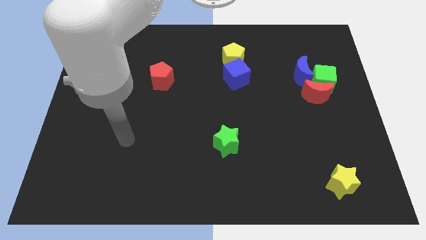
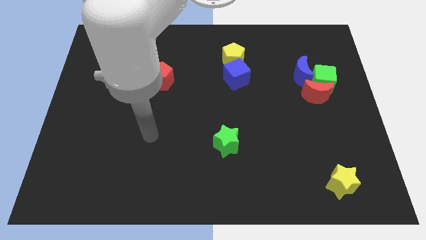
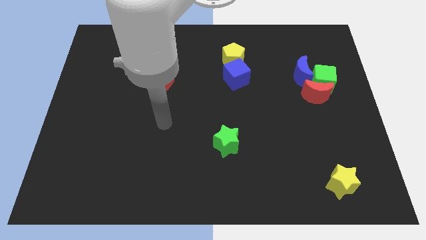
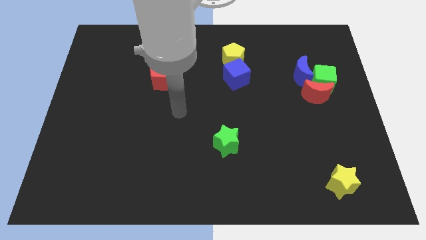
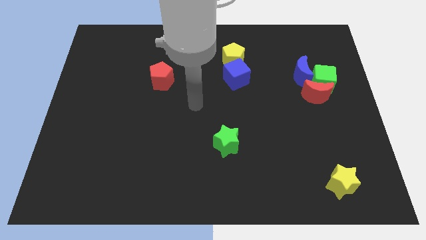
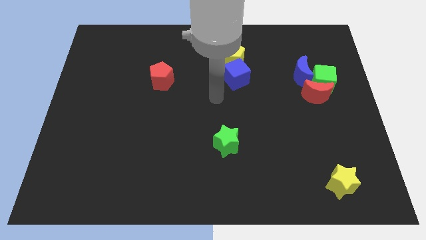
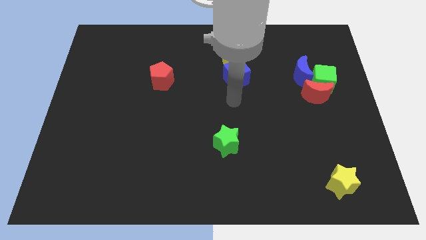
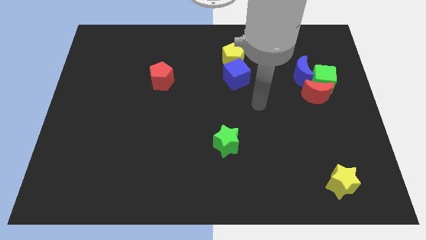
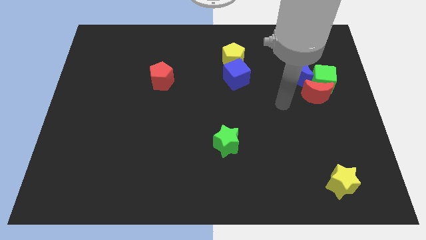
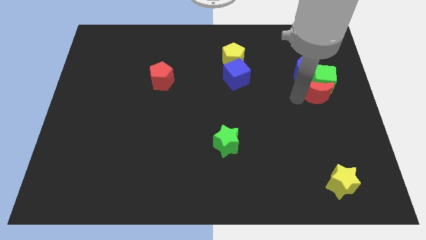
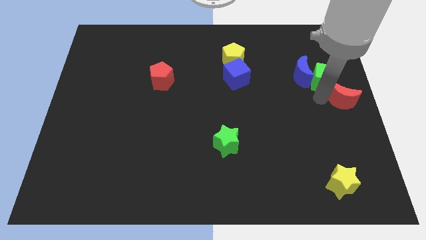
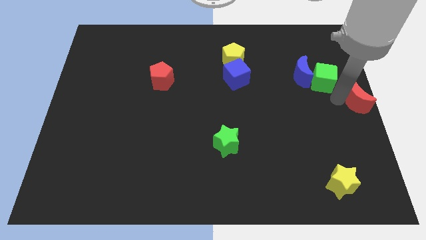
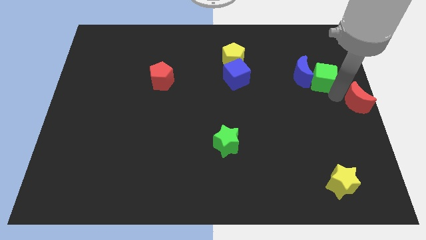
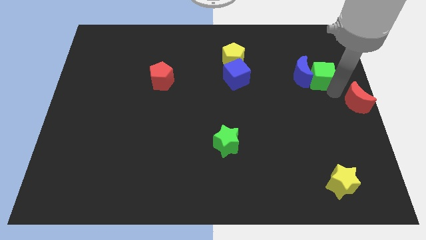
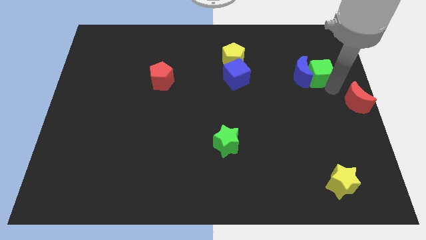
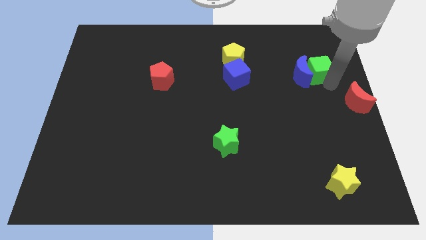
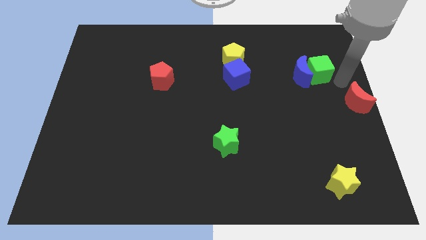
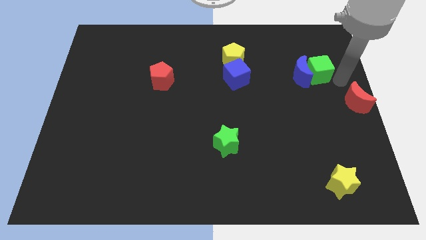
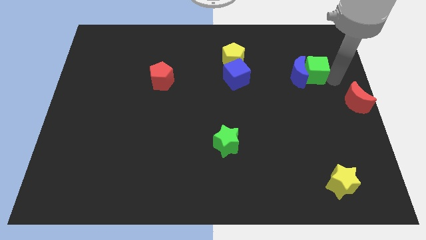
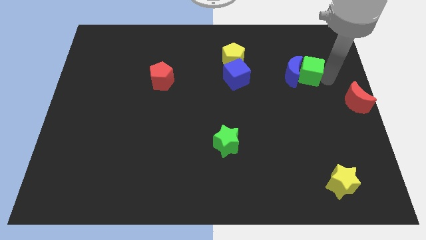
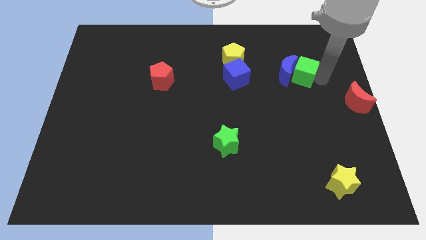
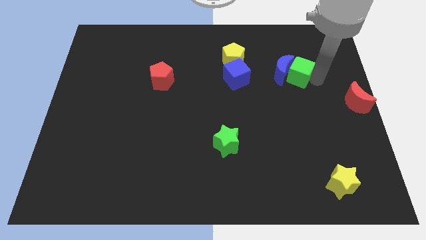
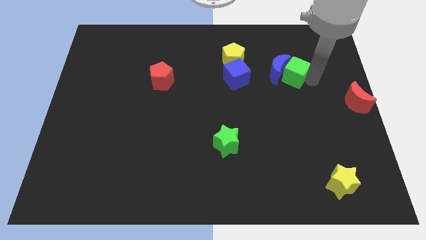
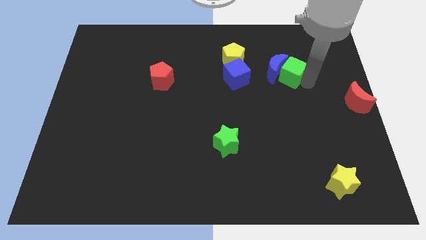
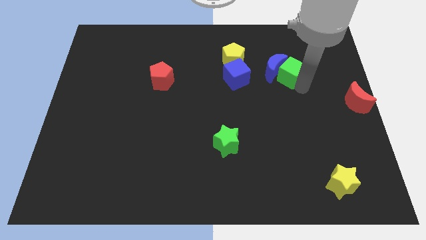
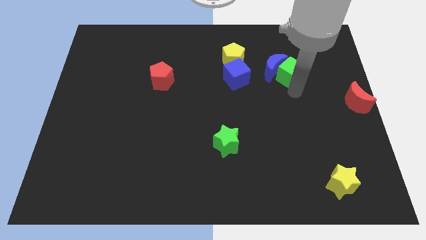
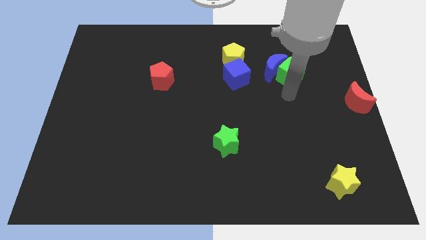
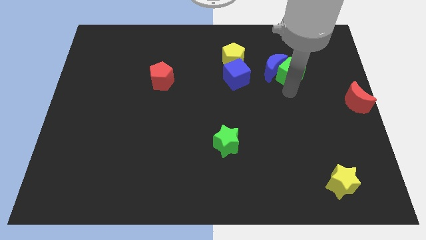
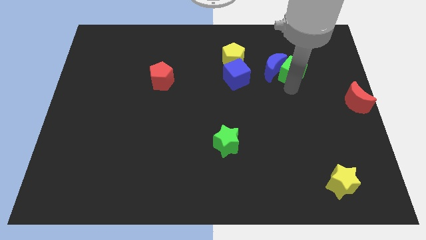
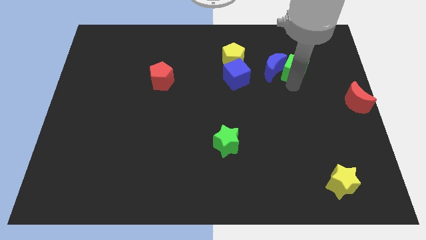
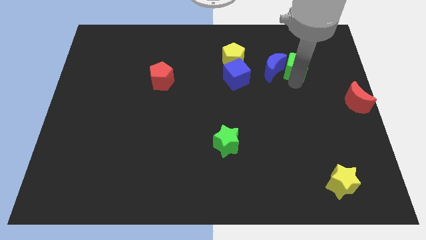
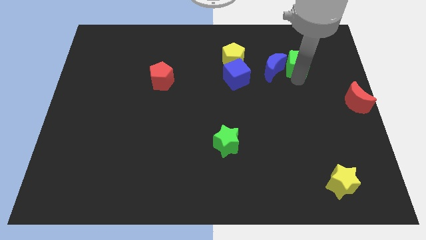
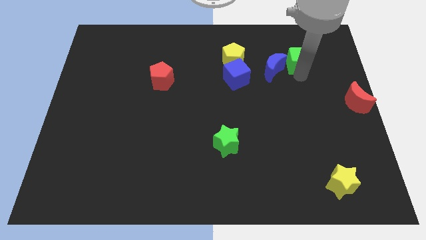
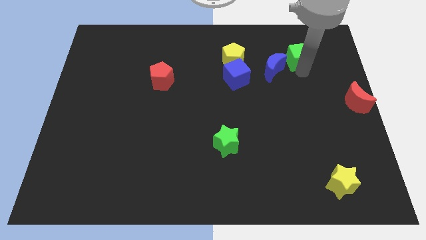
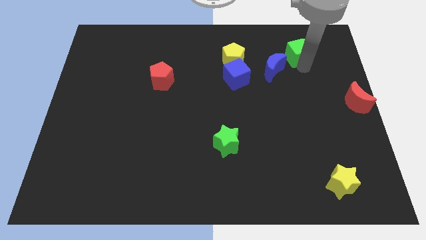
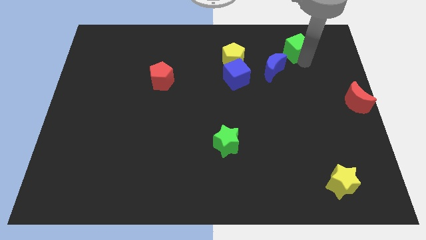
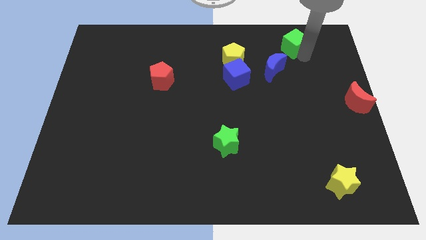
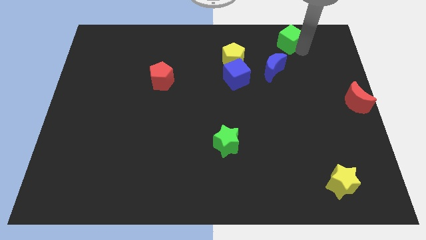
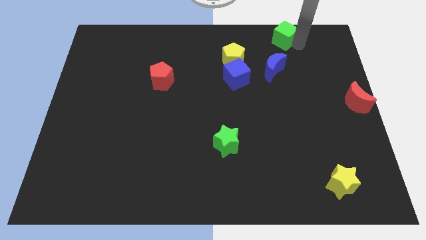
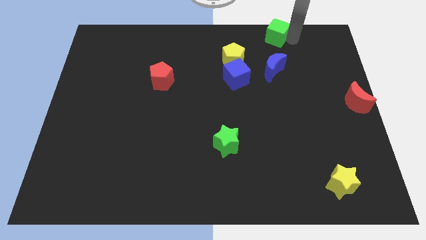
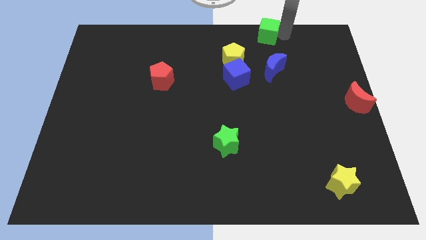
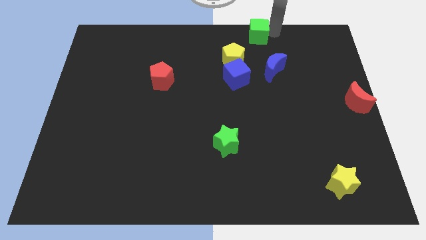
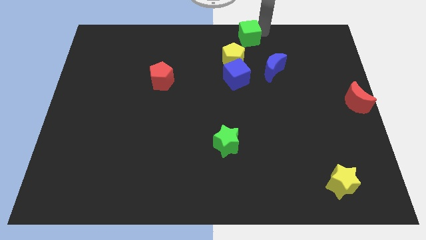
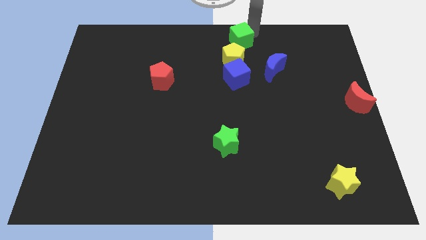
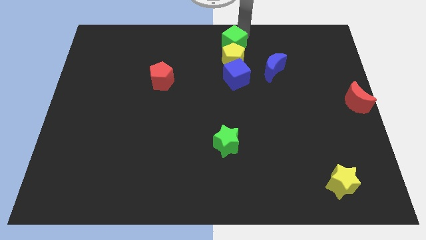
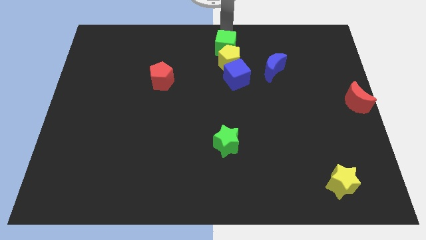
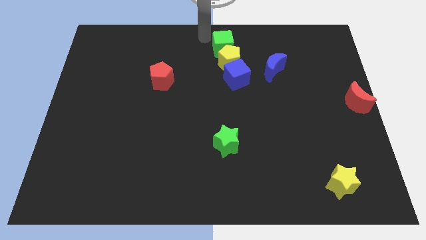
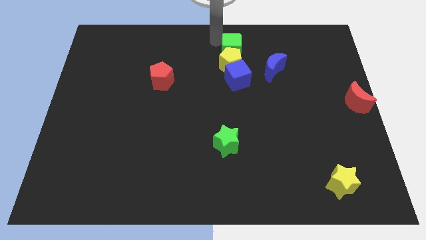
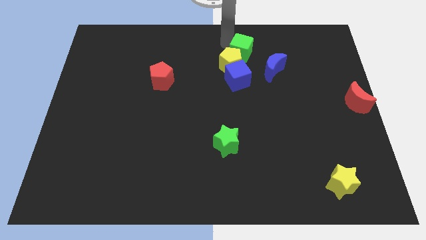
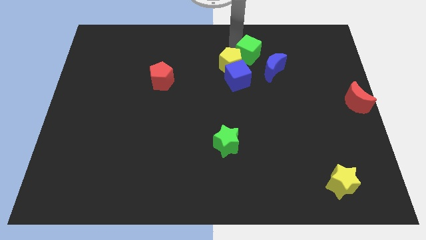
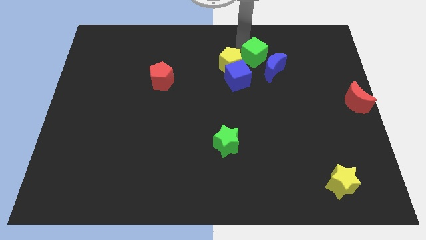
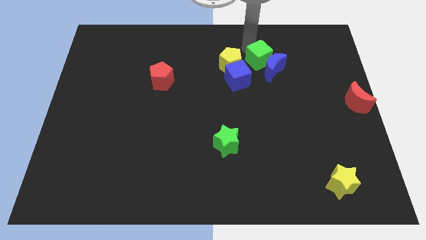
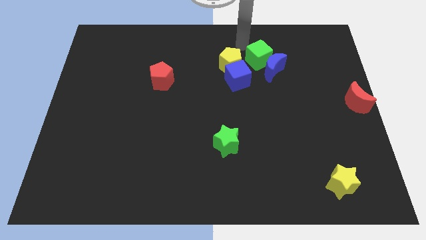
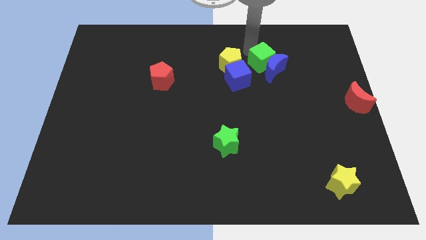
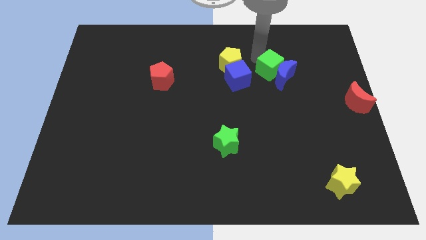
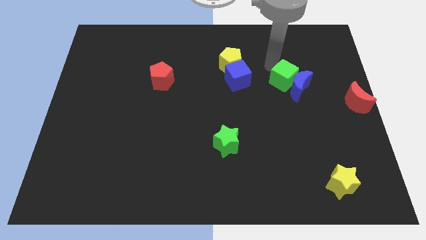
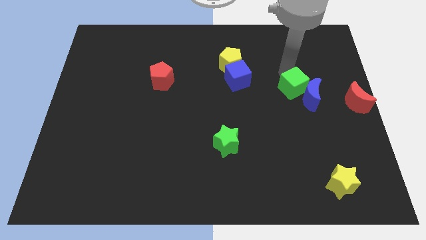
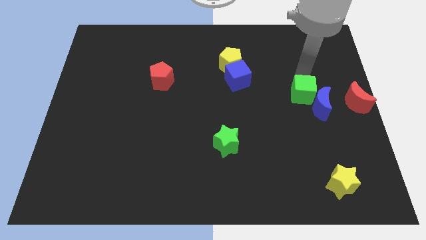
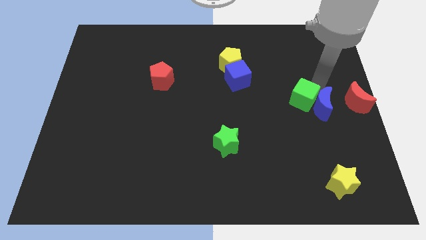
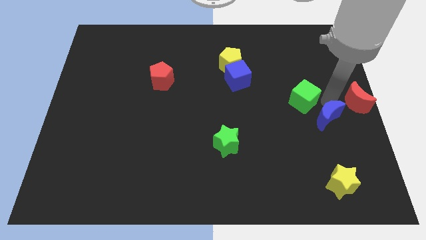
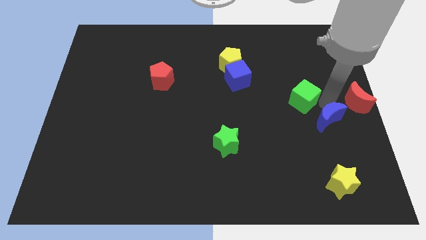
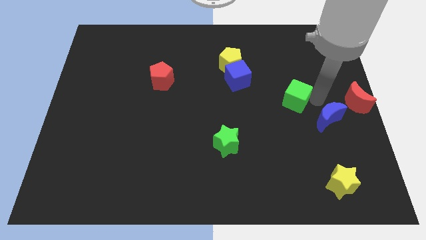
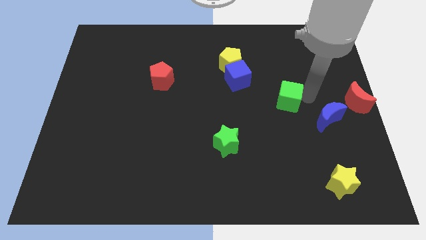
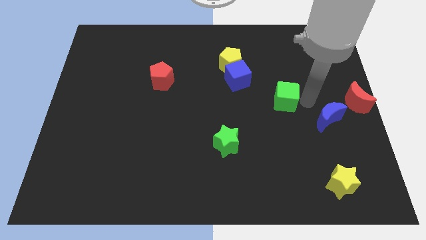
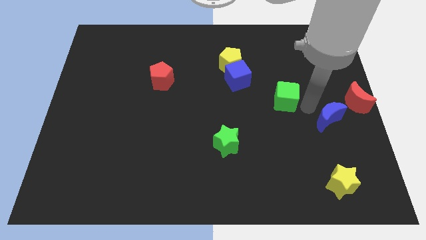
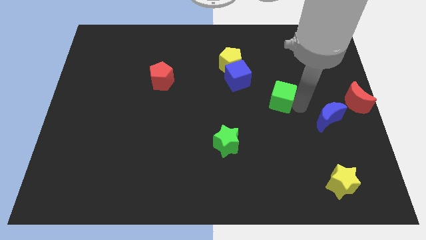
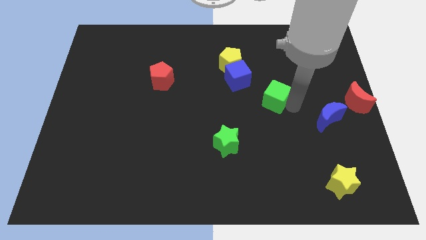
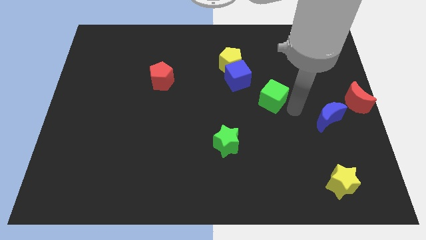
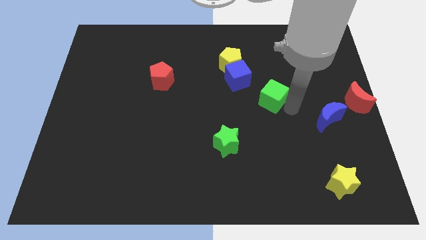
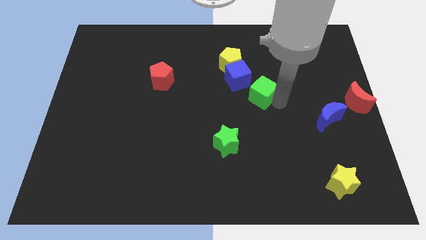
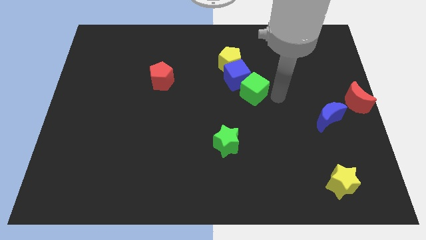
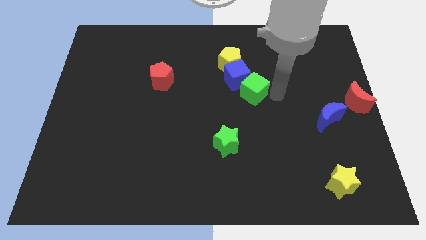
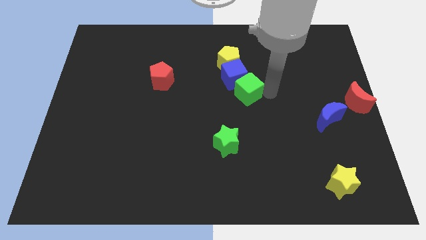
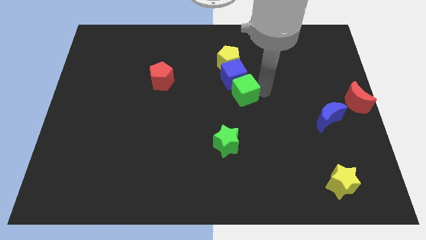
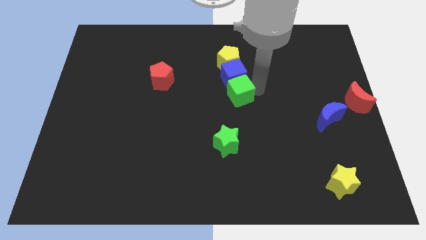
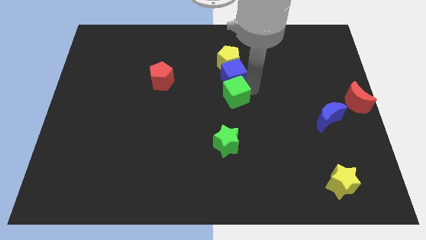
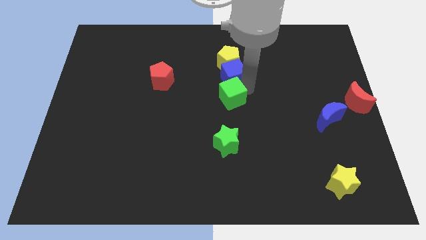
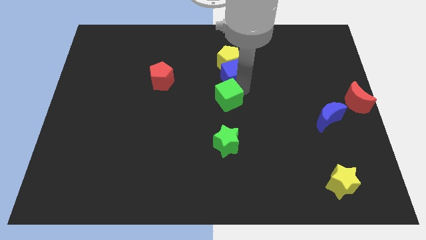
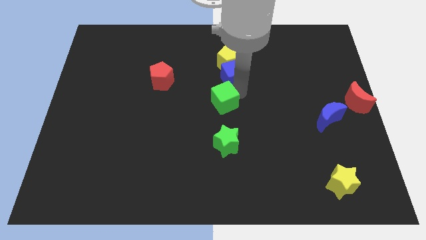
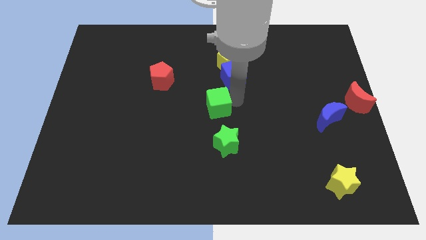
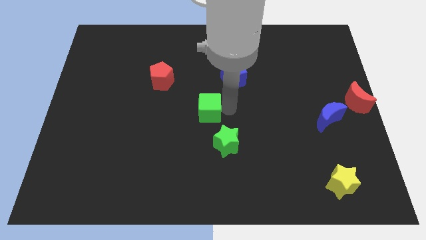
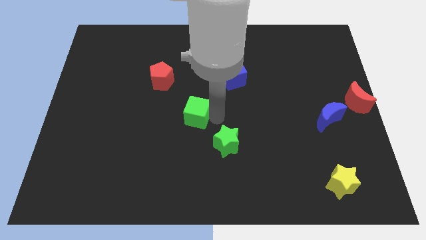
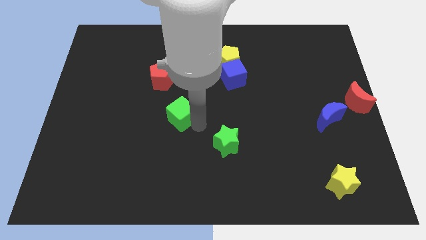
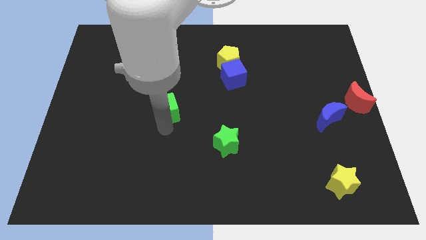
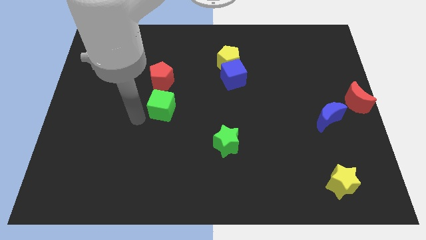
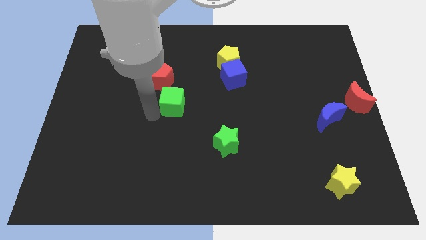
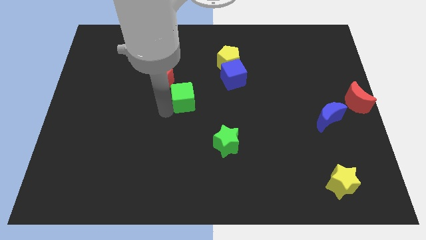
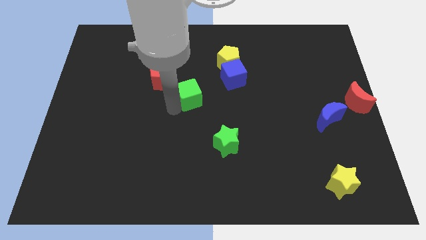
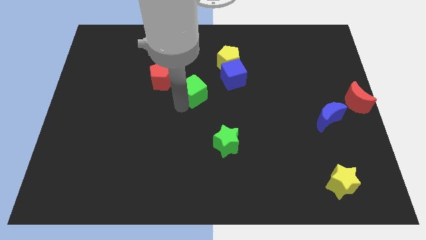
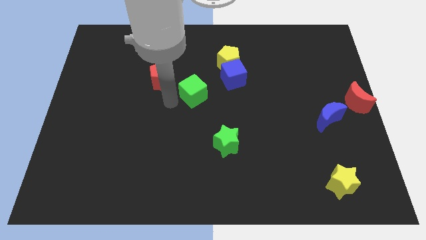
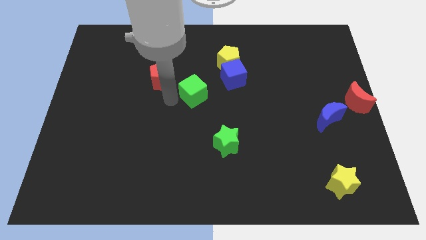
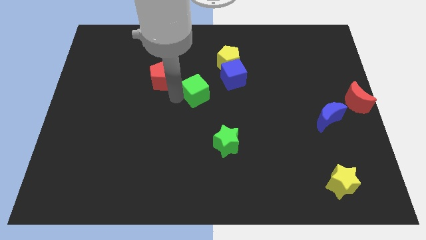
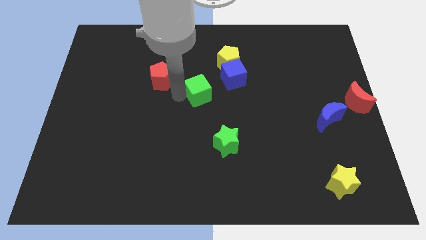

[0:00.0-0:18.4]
slide the green cube diagonally down and to the left of the yellow pentagon
